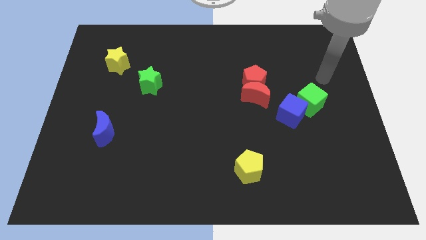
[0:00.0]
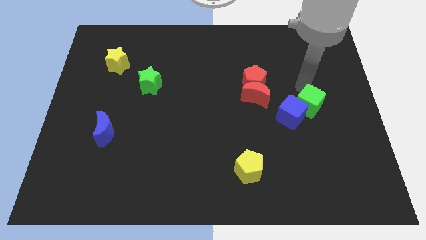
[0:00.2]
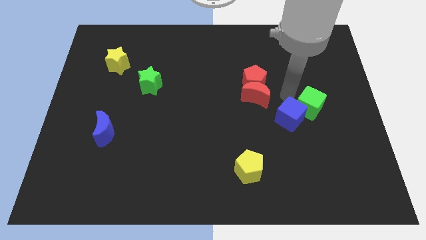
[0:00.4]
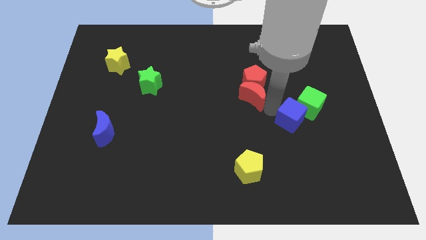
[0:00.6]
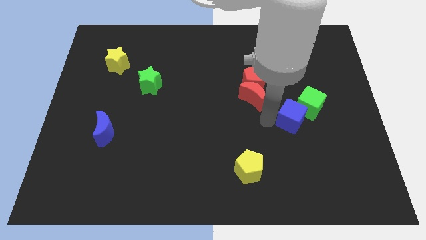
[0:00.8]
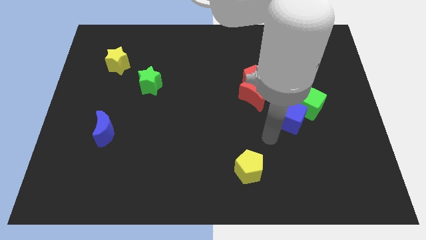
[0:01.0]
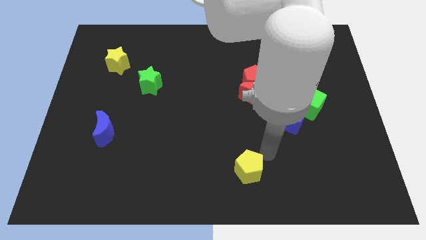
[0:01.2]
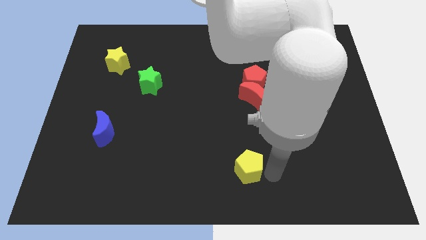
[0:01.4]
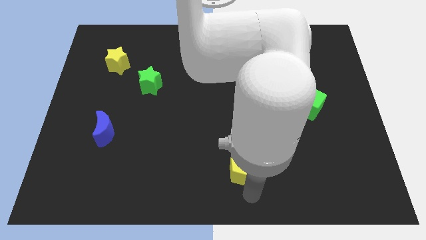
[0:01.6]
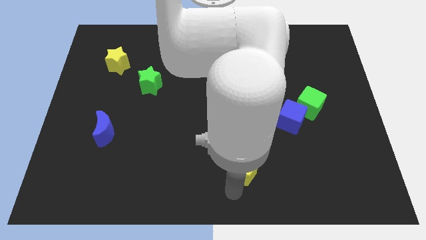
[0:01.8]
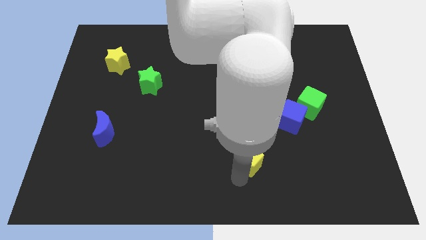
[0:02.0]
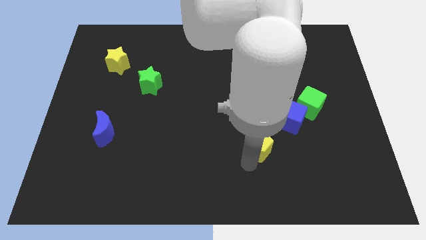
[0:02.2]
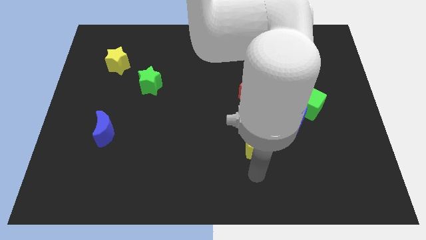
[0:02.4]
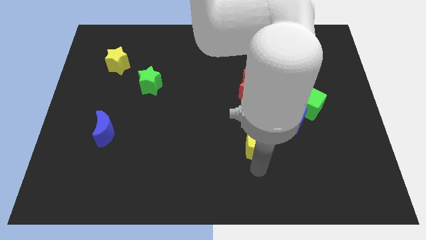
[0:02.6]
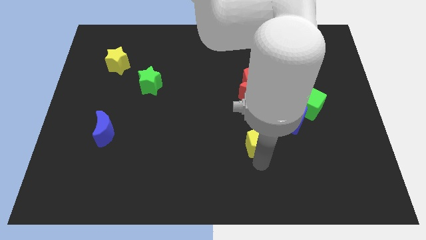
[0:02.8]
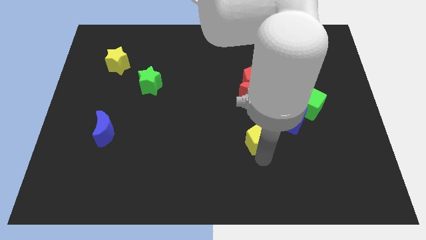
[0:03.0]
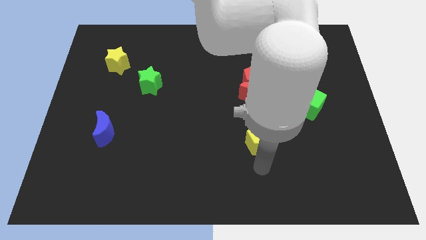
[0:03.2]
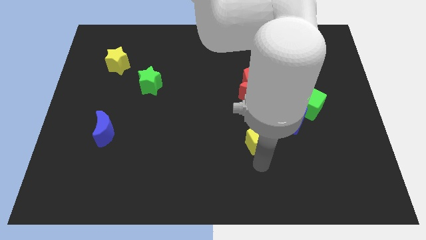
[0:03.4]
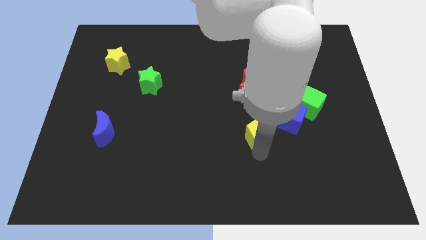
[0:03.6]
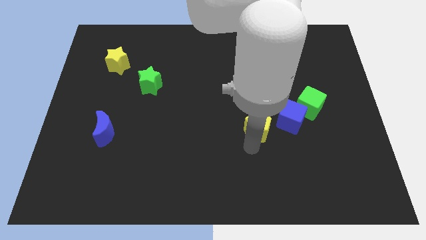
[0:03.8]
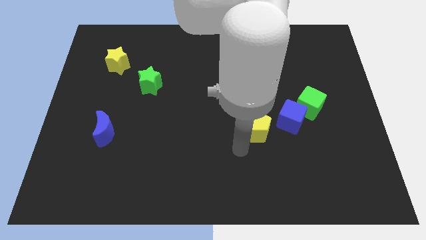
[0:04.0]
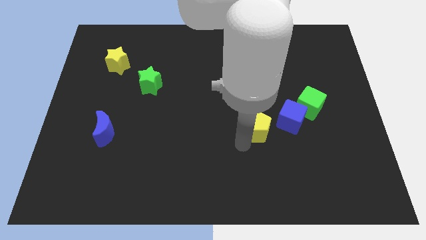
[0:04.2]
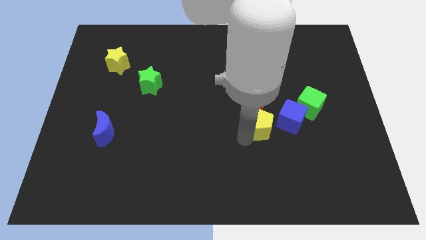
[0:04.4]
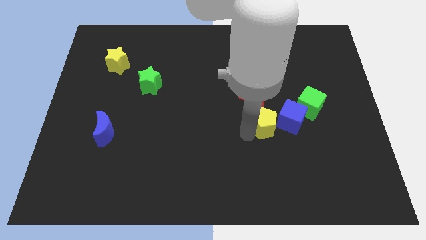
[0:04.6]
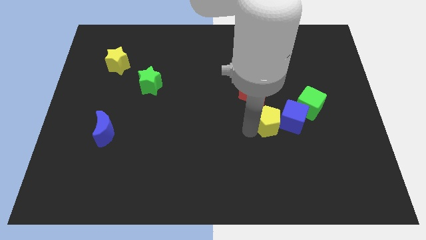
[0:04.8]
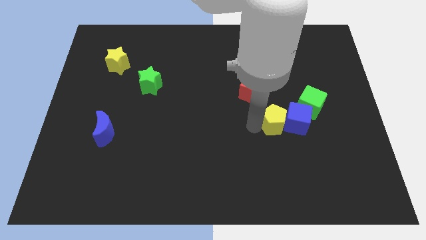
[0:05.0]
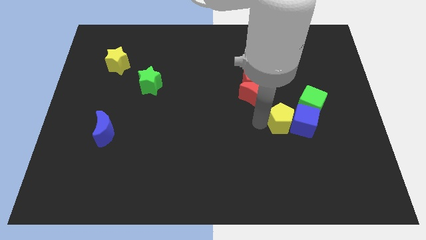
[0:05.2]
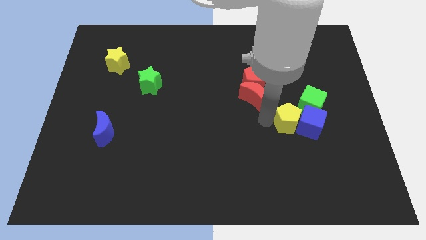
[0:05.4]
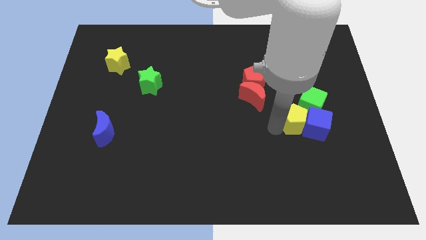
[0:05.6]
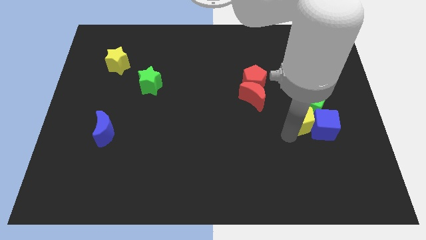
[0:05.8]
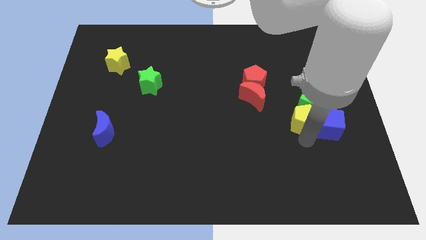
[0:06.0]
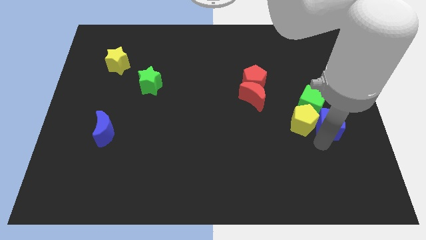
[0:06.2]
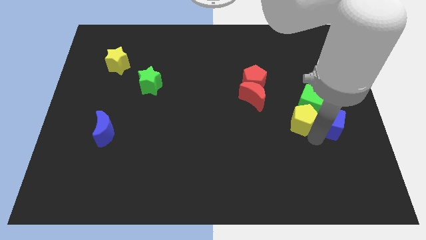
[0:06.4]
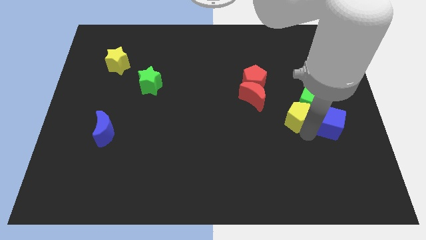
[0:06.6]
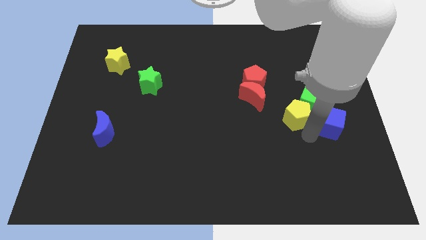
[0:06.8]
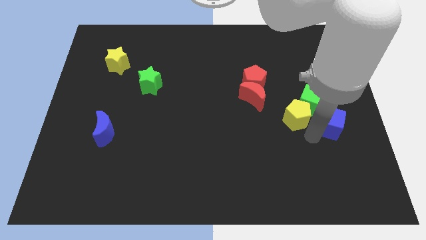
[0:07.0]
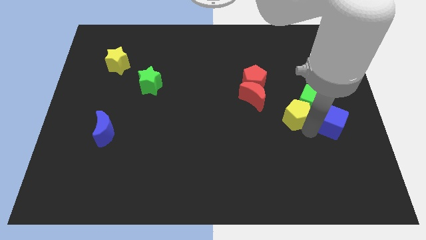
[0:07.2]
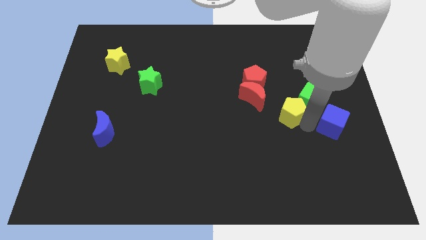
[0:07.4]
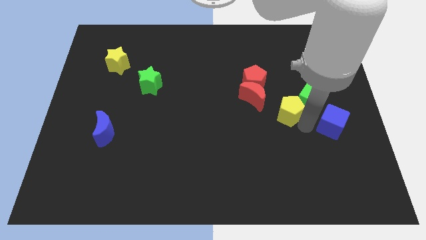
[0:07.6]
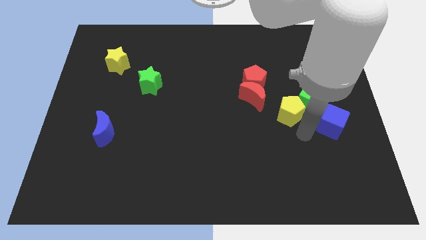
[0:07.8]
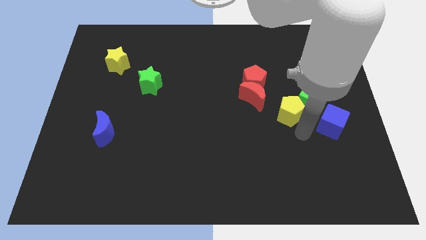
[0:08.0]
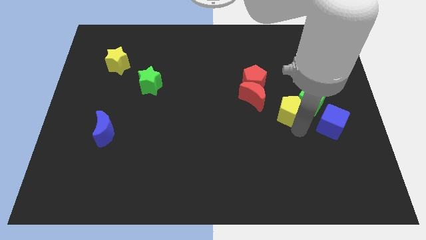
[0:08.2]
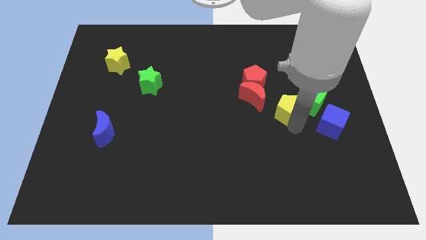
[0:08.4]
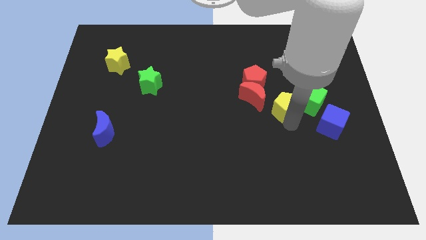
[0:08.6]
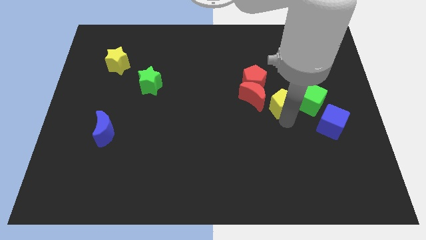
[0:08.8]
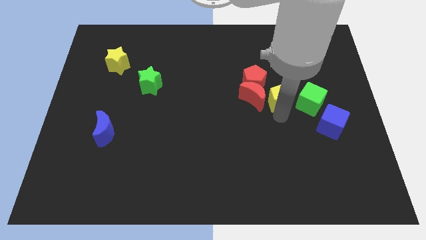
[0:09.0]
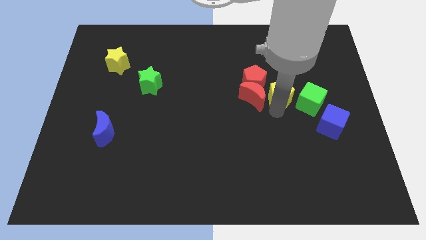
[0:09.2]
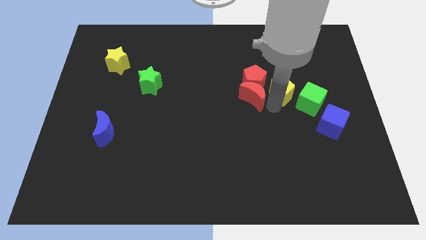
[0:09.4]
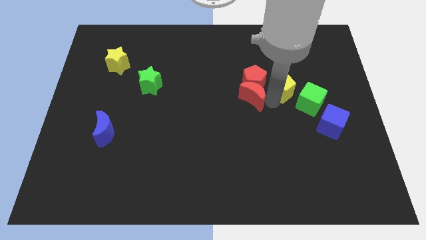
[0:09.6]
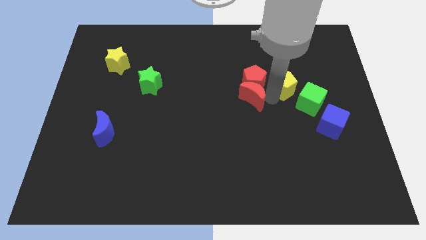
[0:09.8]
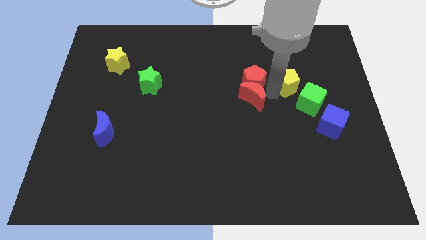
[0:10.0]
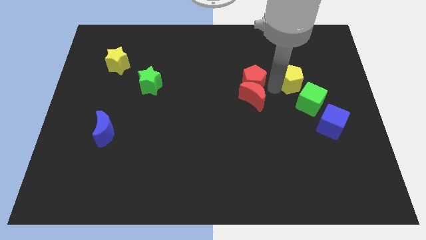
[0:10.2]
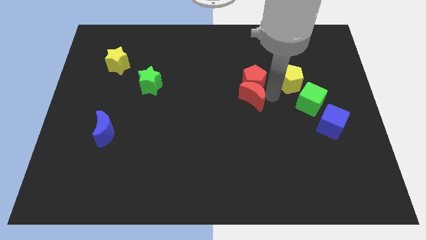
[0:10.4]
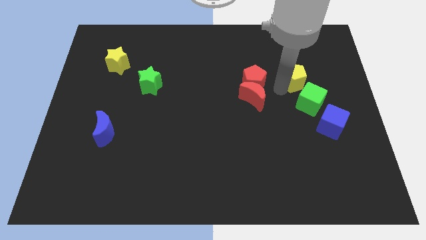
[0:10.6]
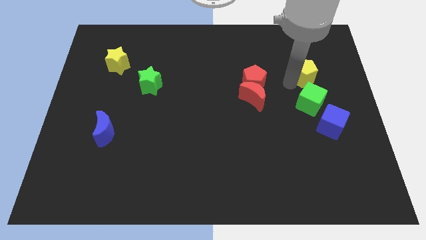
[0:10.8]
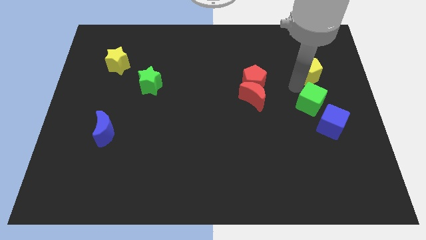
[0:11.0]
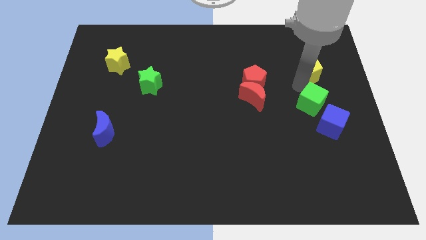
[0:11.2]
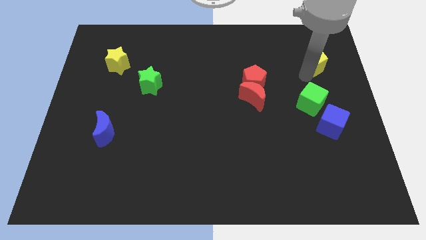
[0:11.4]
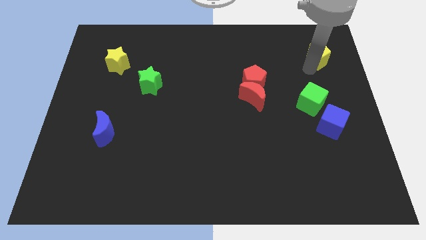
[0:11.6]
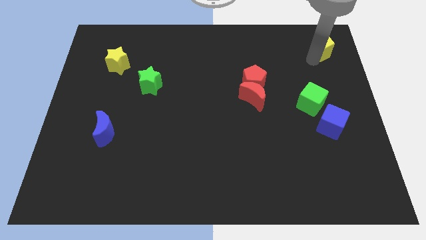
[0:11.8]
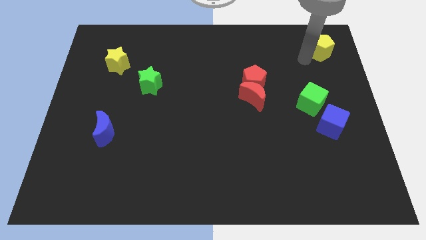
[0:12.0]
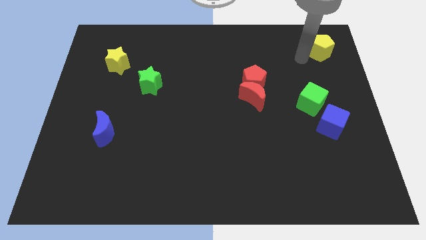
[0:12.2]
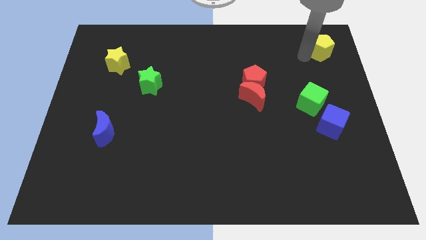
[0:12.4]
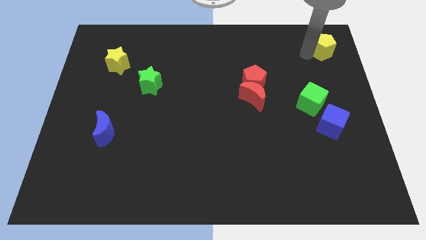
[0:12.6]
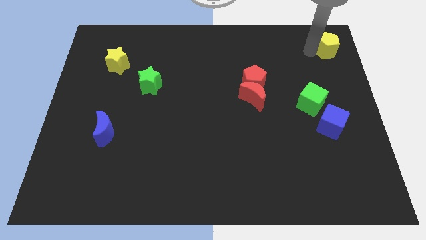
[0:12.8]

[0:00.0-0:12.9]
put the yellow pentagon to the top right of the board
